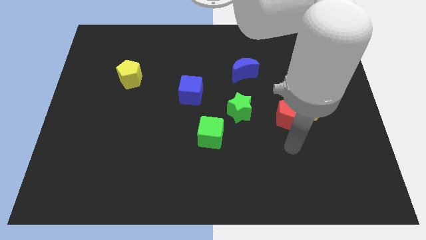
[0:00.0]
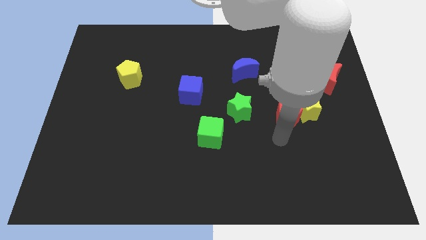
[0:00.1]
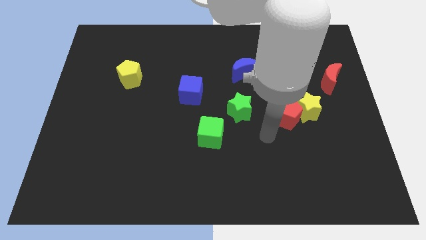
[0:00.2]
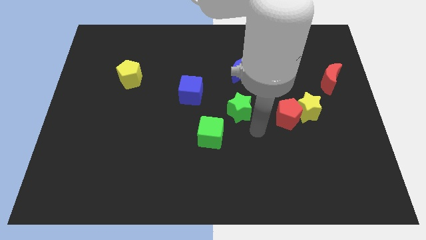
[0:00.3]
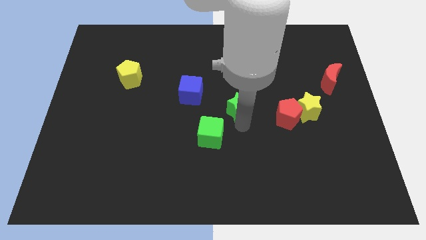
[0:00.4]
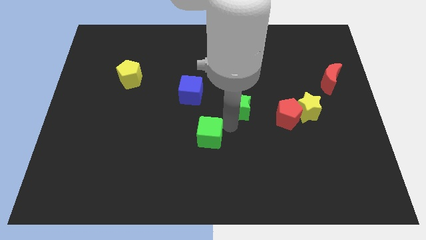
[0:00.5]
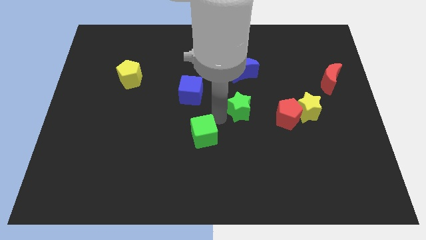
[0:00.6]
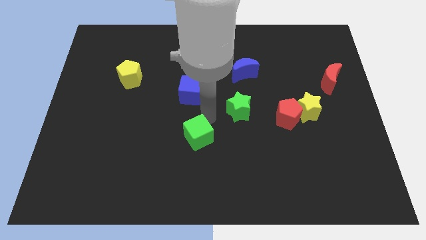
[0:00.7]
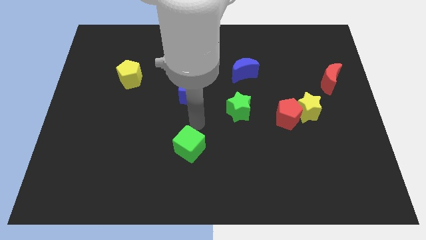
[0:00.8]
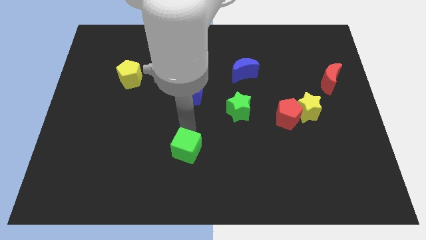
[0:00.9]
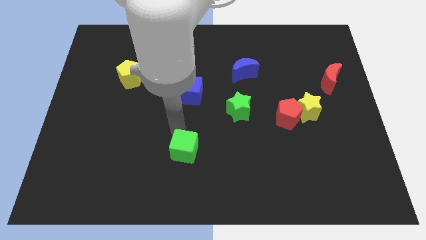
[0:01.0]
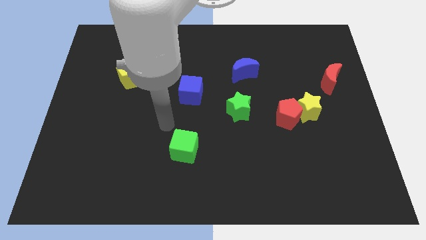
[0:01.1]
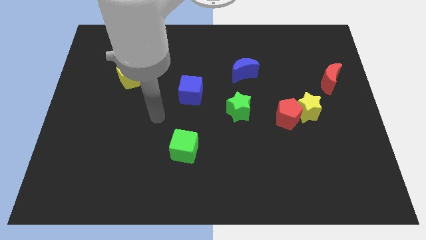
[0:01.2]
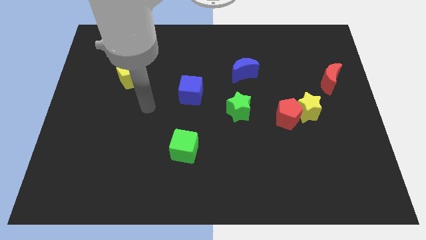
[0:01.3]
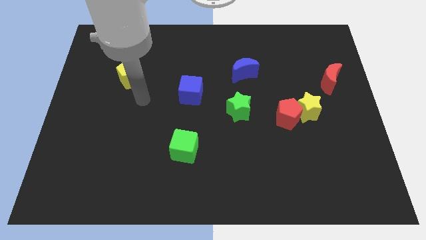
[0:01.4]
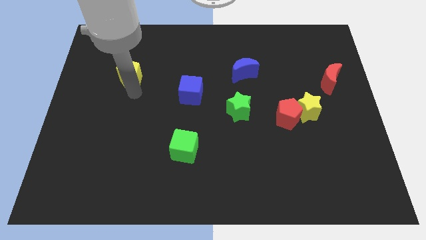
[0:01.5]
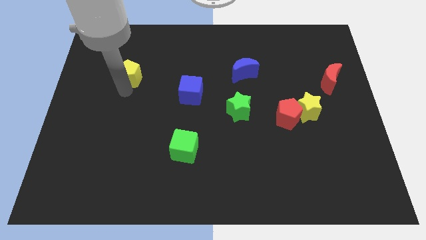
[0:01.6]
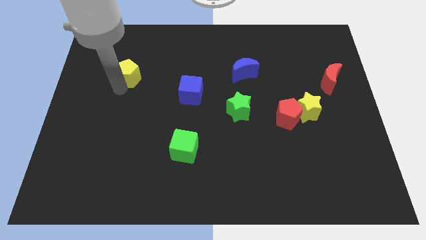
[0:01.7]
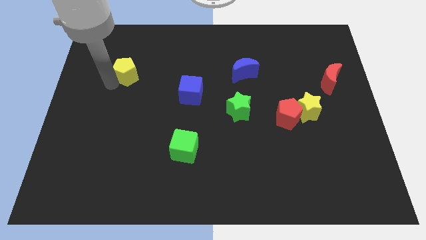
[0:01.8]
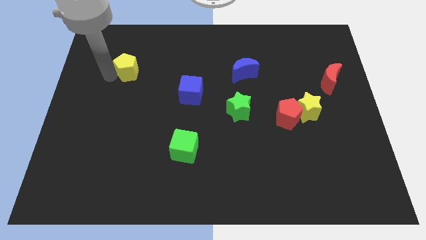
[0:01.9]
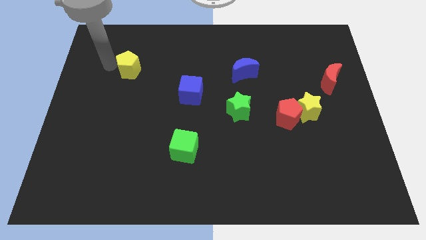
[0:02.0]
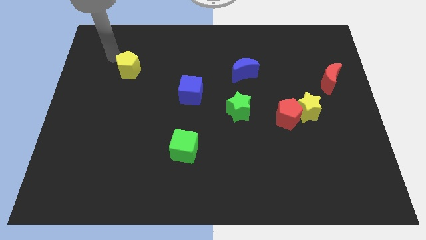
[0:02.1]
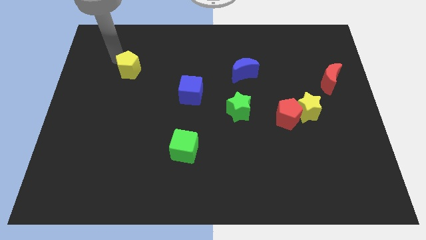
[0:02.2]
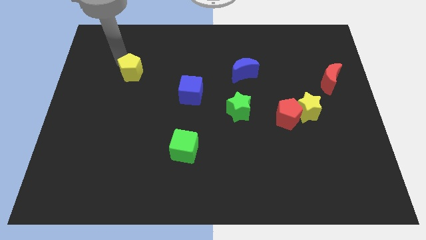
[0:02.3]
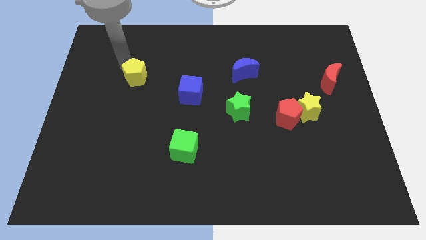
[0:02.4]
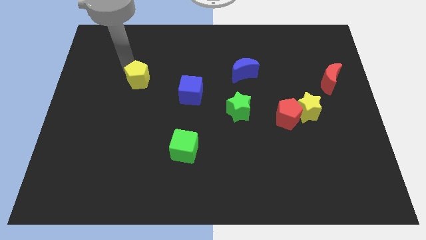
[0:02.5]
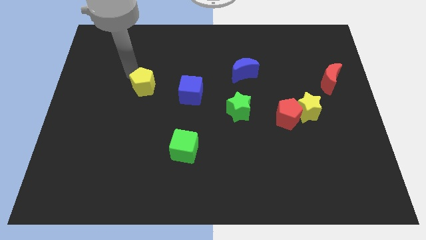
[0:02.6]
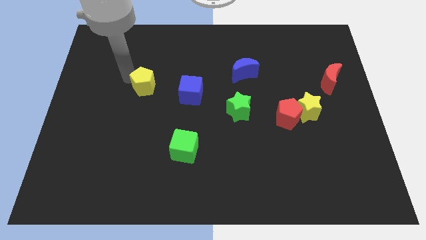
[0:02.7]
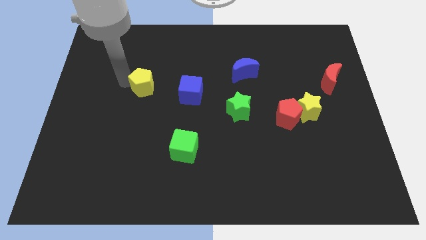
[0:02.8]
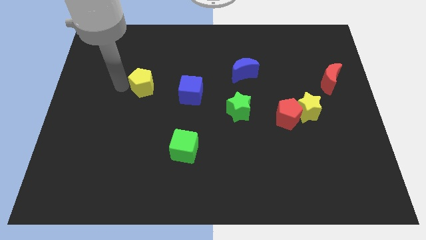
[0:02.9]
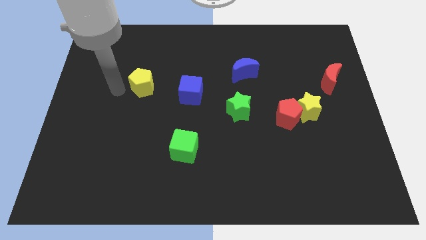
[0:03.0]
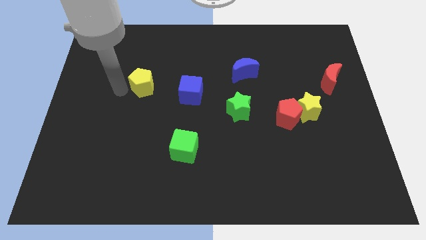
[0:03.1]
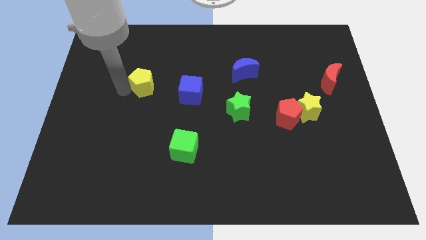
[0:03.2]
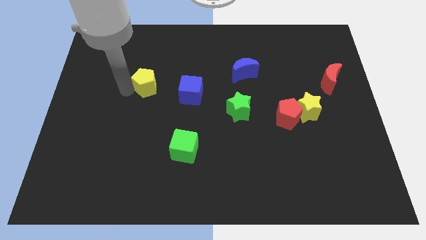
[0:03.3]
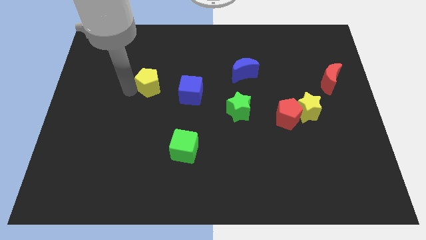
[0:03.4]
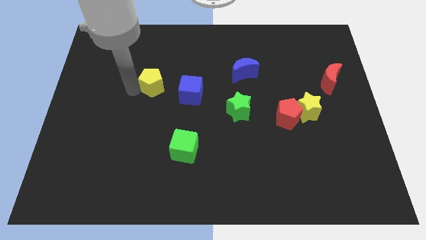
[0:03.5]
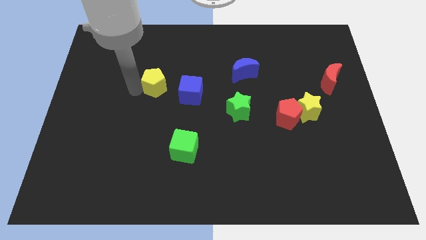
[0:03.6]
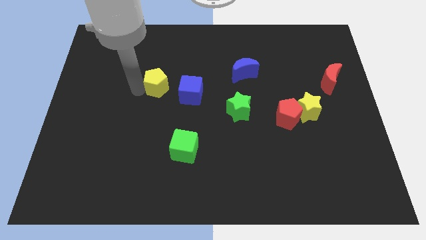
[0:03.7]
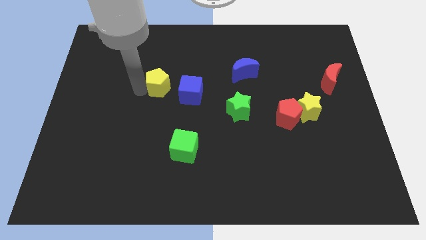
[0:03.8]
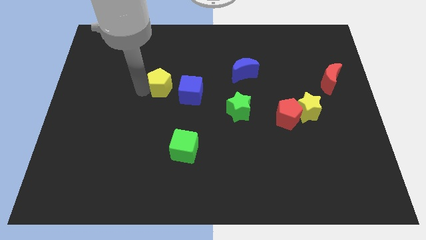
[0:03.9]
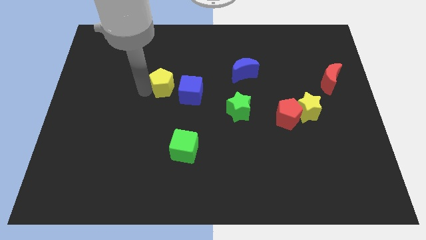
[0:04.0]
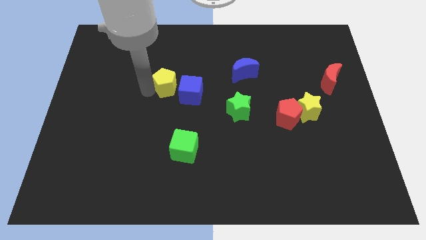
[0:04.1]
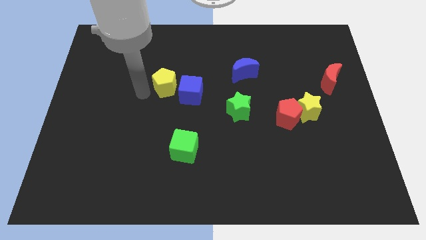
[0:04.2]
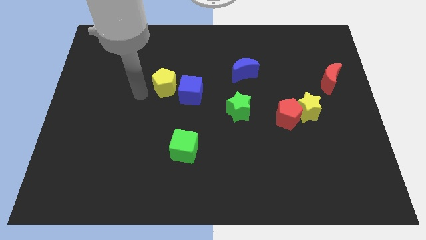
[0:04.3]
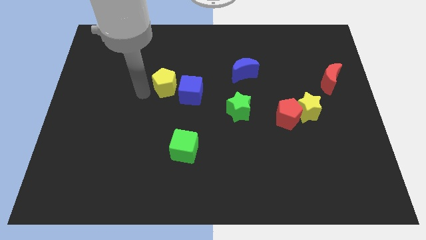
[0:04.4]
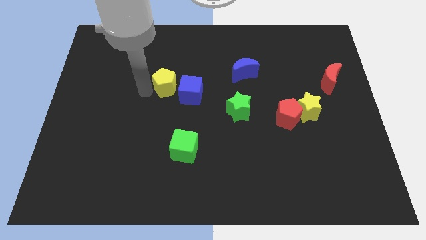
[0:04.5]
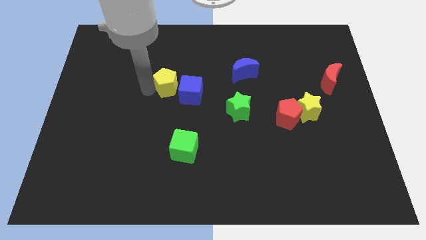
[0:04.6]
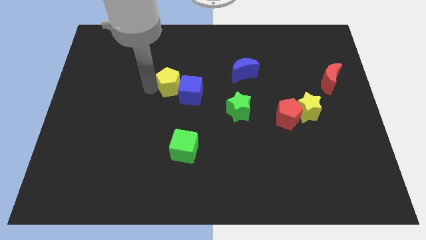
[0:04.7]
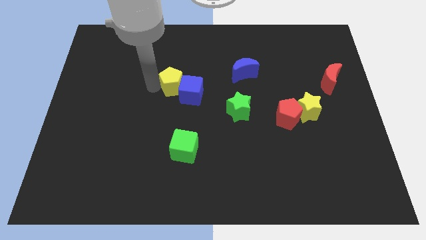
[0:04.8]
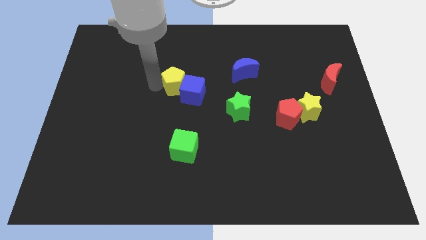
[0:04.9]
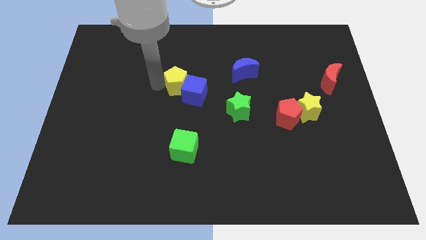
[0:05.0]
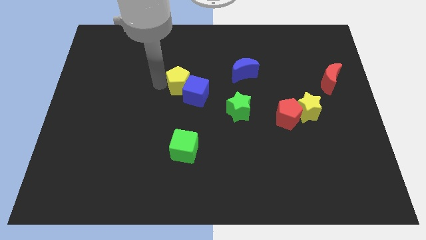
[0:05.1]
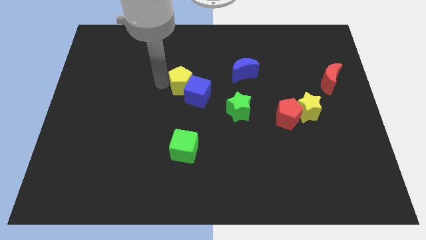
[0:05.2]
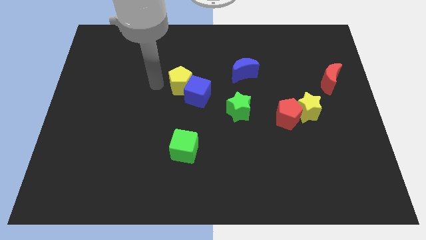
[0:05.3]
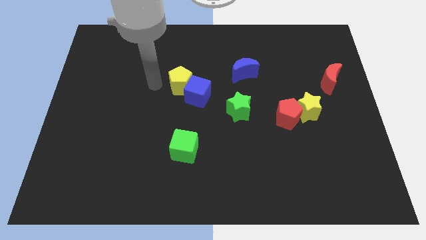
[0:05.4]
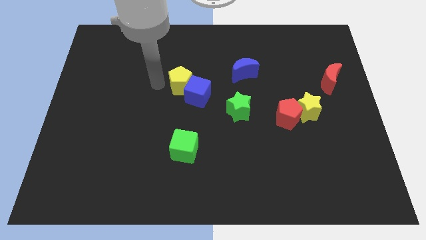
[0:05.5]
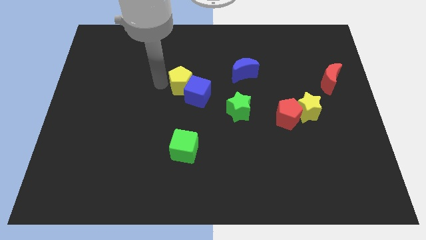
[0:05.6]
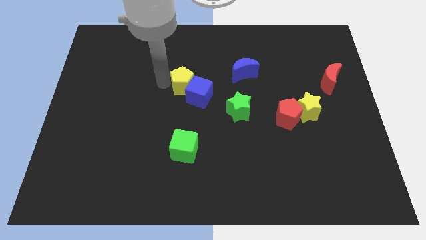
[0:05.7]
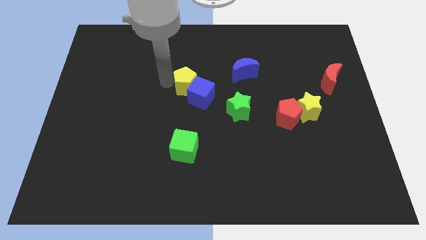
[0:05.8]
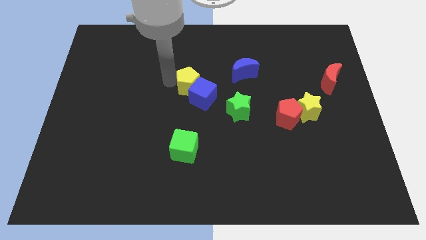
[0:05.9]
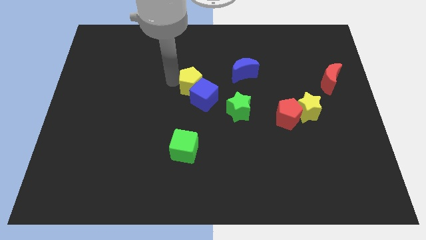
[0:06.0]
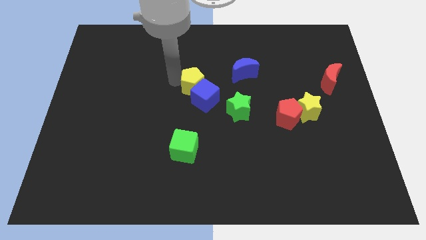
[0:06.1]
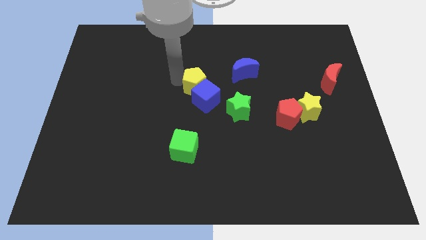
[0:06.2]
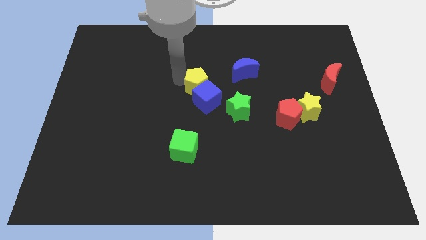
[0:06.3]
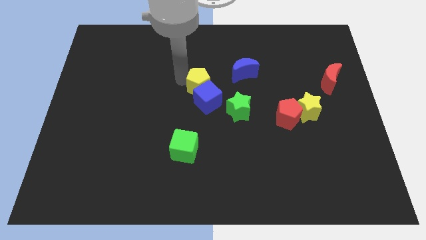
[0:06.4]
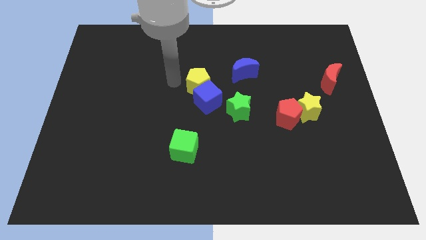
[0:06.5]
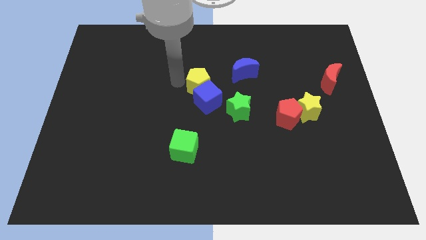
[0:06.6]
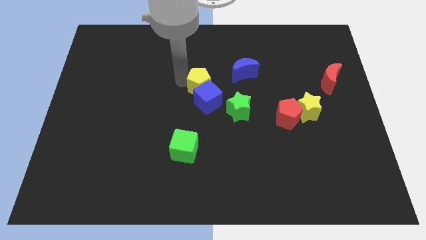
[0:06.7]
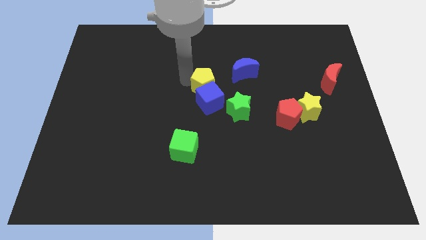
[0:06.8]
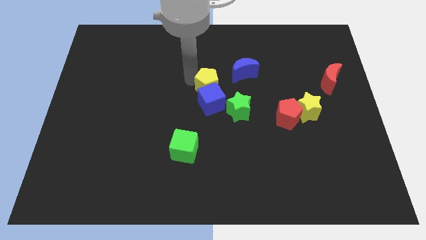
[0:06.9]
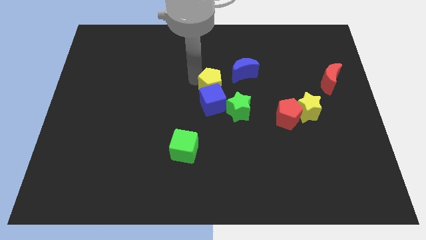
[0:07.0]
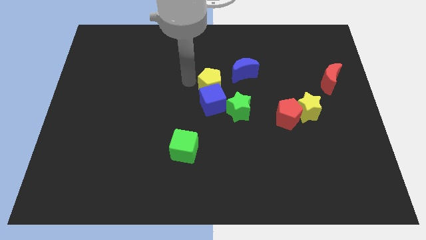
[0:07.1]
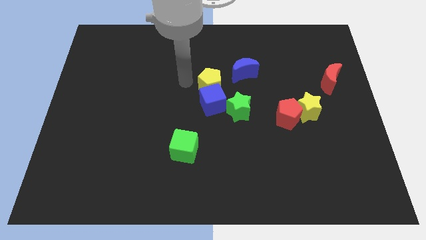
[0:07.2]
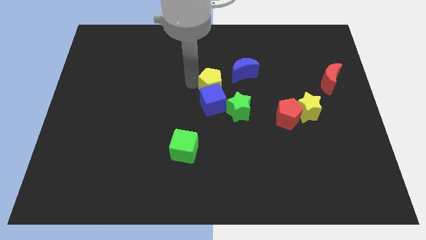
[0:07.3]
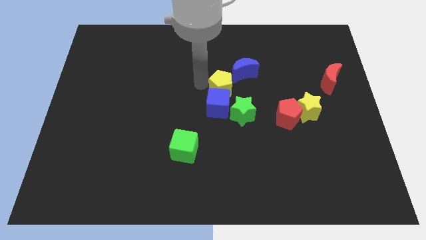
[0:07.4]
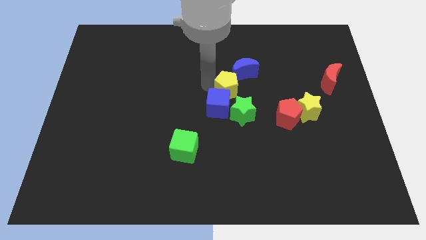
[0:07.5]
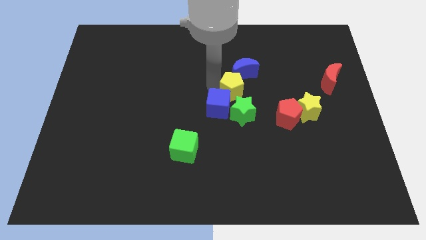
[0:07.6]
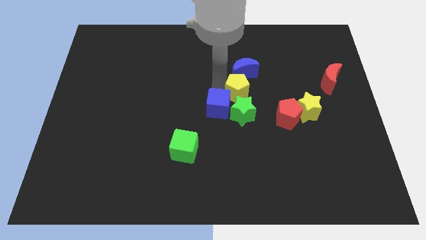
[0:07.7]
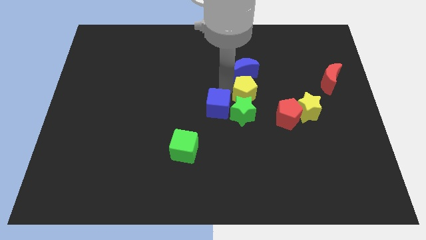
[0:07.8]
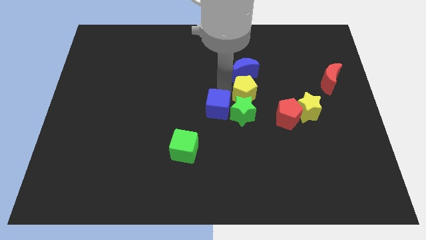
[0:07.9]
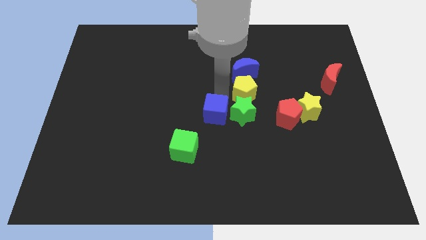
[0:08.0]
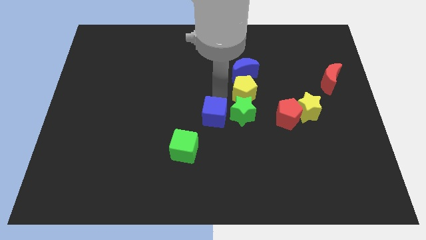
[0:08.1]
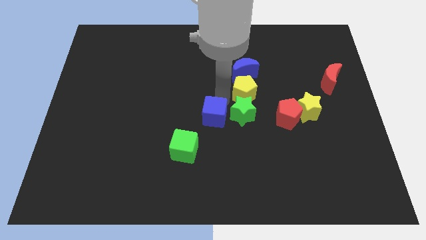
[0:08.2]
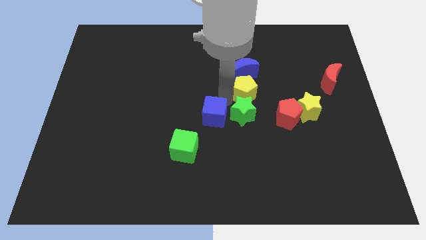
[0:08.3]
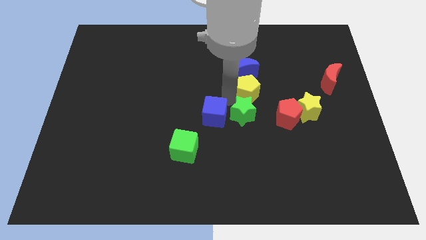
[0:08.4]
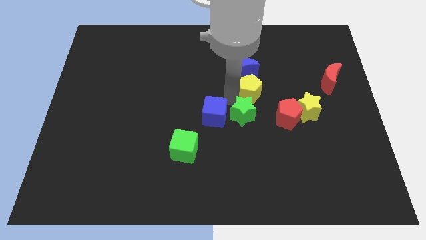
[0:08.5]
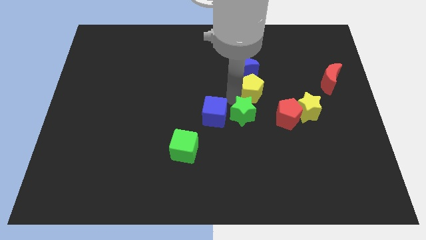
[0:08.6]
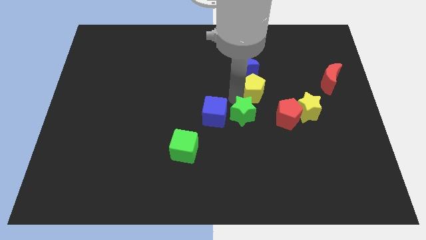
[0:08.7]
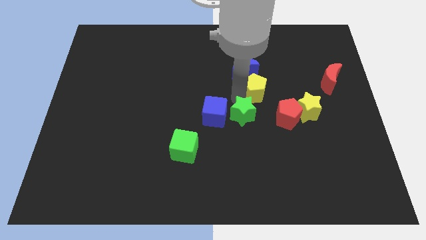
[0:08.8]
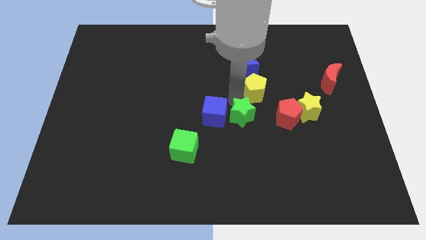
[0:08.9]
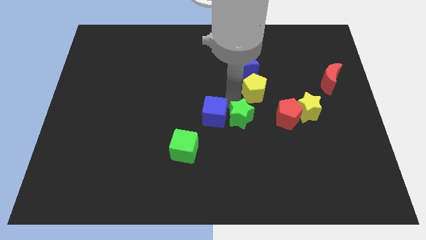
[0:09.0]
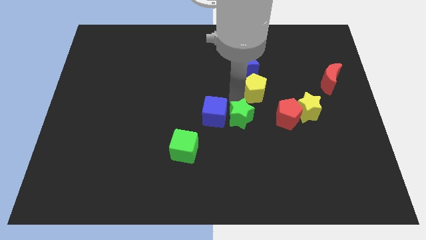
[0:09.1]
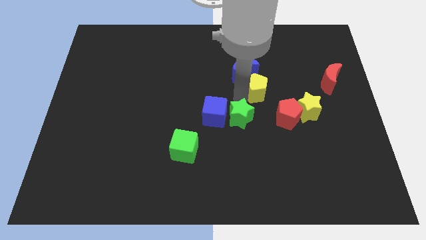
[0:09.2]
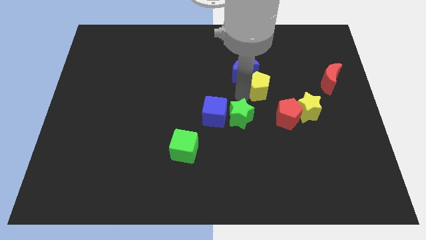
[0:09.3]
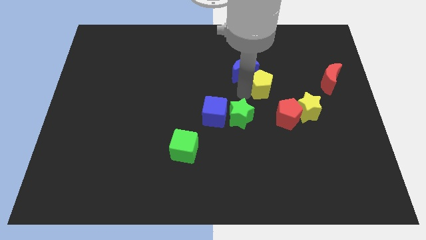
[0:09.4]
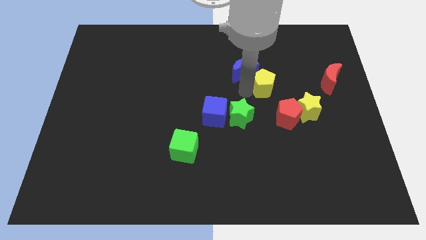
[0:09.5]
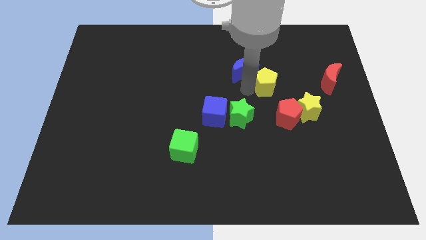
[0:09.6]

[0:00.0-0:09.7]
put the yellow pentagon left of the red moon
